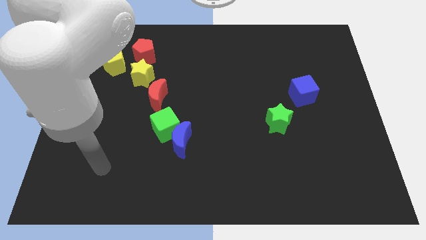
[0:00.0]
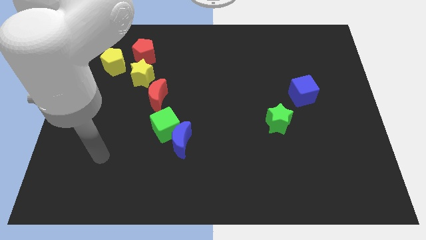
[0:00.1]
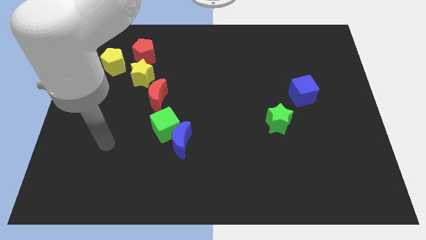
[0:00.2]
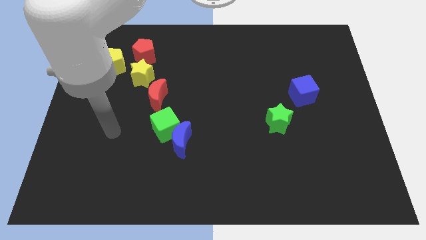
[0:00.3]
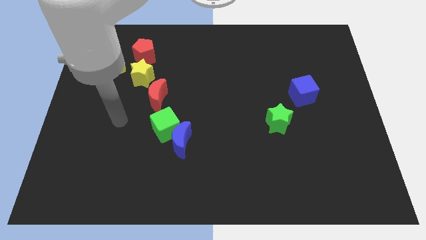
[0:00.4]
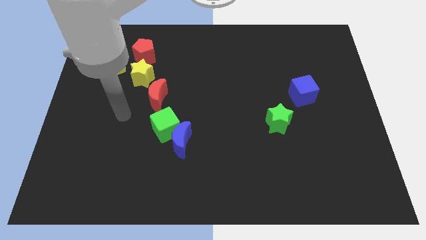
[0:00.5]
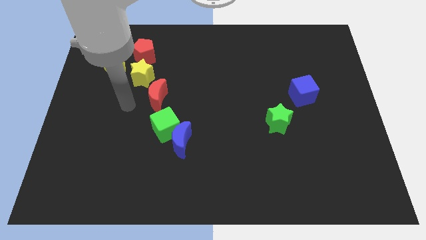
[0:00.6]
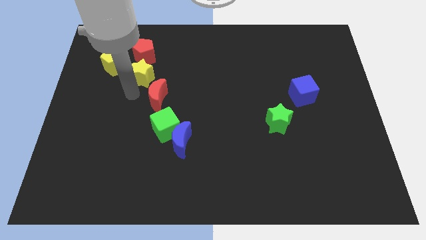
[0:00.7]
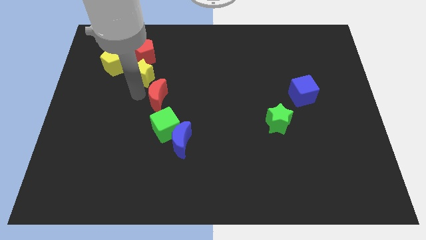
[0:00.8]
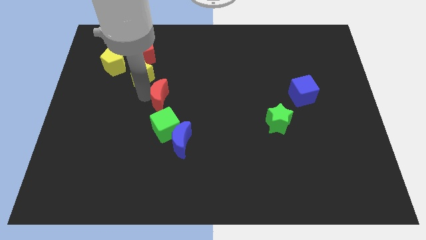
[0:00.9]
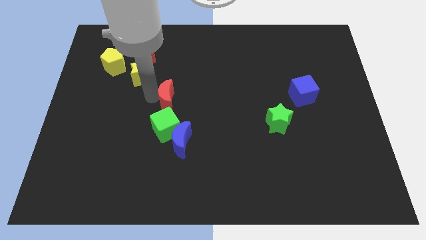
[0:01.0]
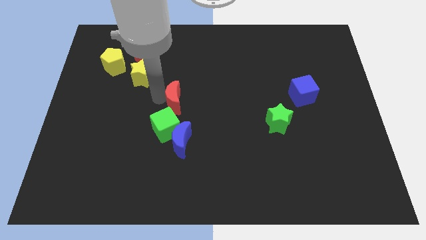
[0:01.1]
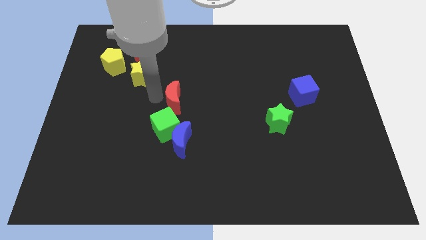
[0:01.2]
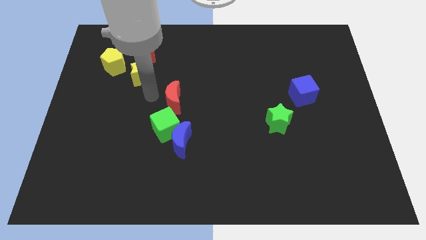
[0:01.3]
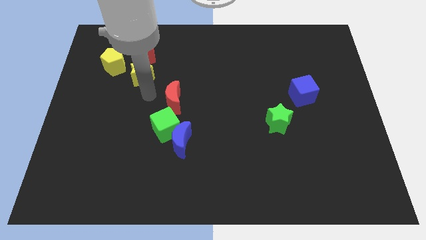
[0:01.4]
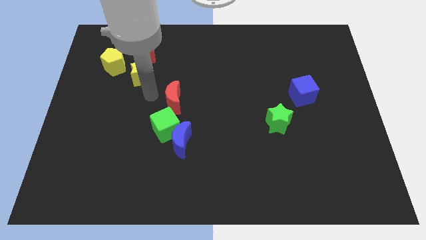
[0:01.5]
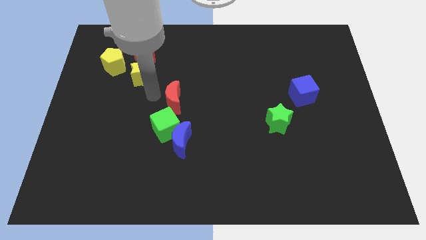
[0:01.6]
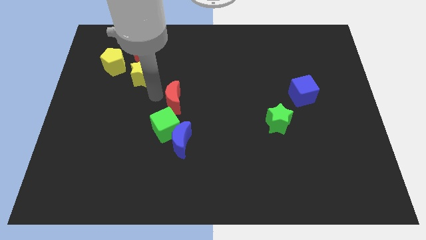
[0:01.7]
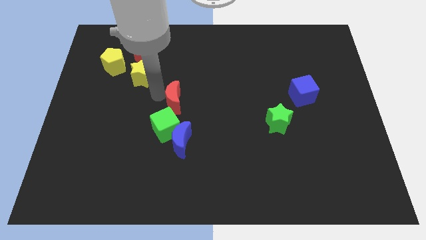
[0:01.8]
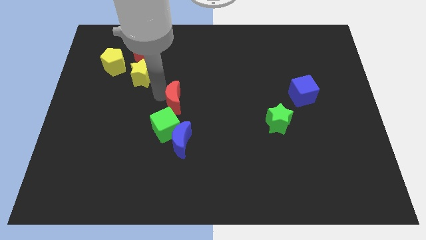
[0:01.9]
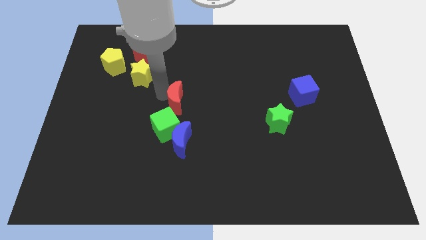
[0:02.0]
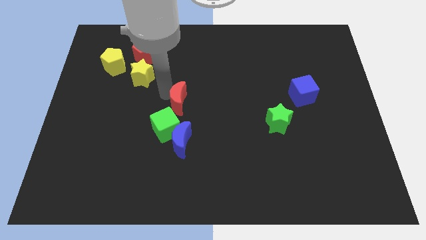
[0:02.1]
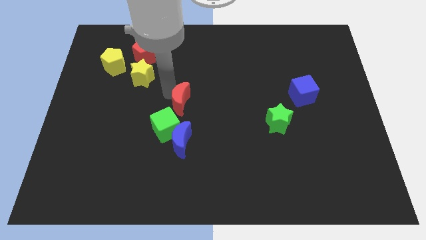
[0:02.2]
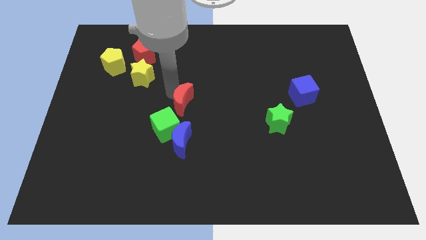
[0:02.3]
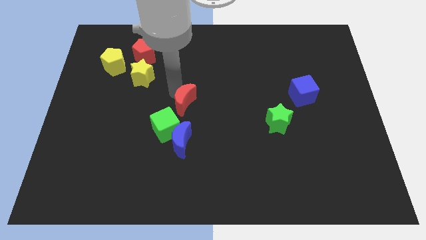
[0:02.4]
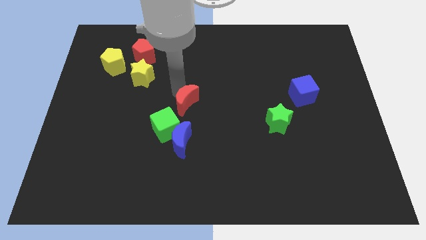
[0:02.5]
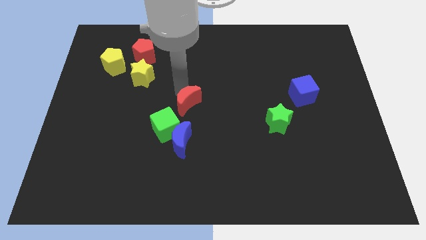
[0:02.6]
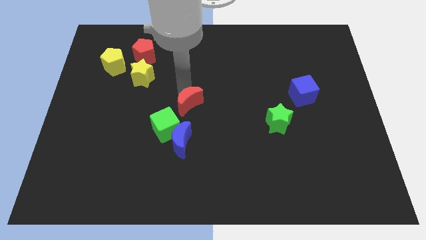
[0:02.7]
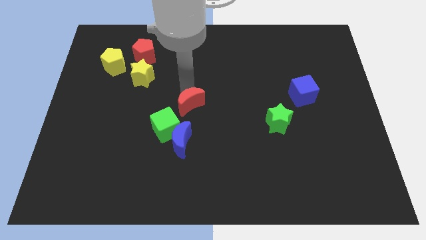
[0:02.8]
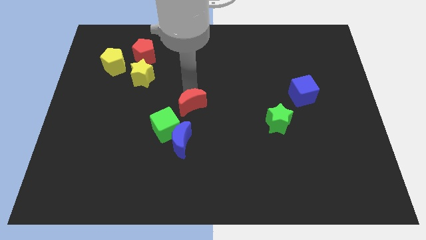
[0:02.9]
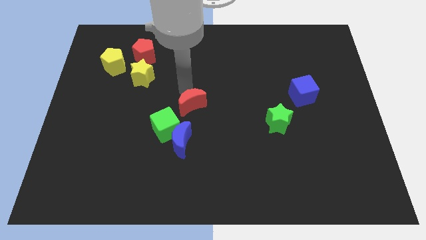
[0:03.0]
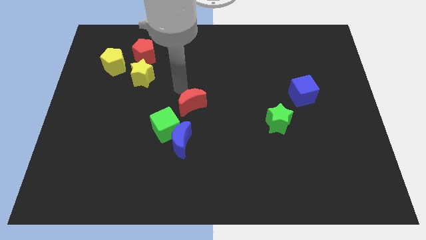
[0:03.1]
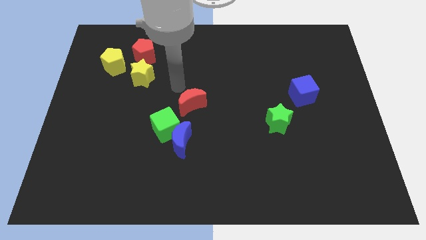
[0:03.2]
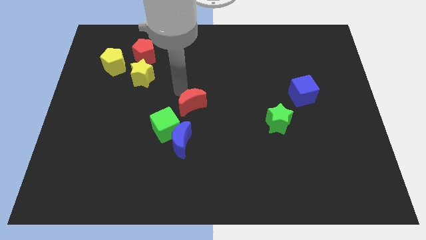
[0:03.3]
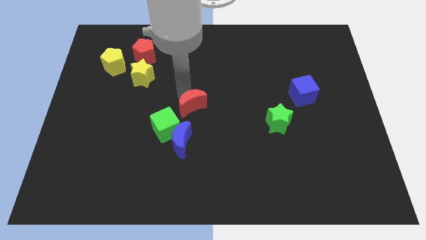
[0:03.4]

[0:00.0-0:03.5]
move the red moon a little downwards and to the right

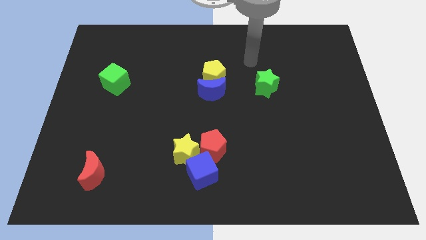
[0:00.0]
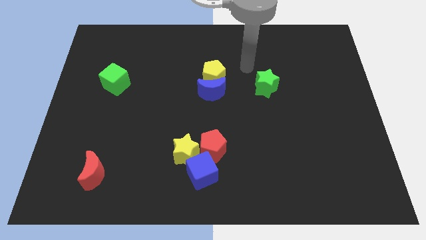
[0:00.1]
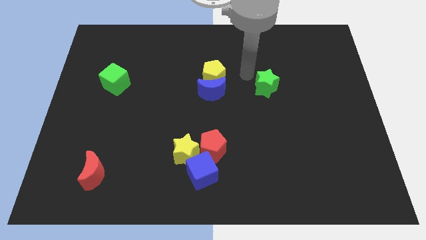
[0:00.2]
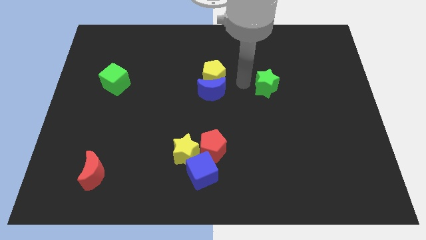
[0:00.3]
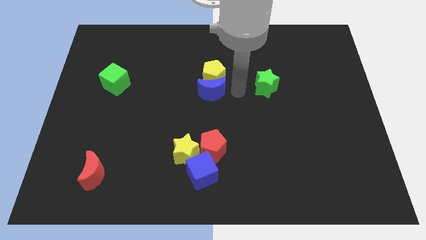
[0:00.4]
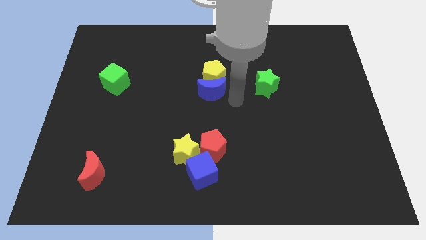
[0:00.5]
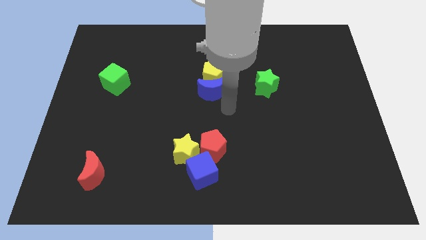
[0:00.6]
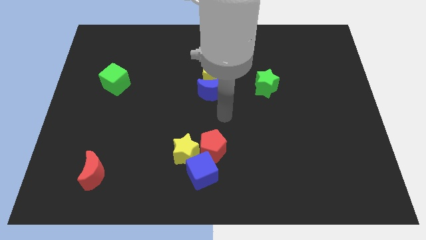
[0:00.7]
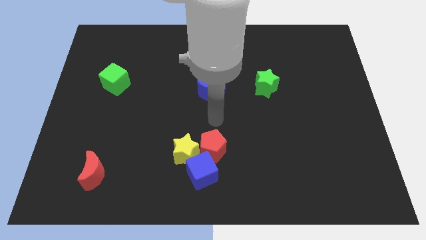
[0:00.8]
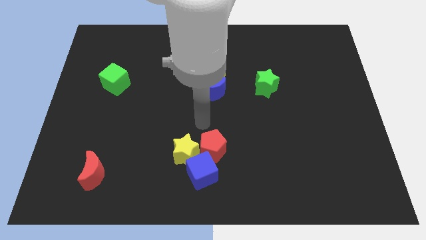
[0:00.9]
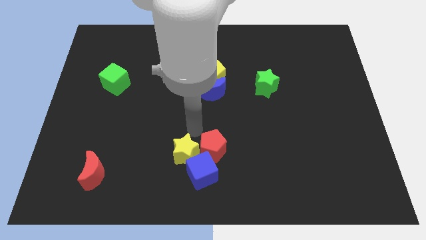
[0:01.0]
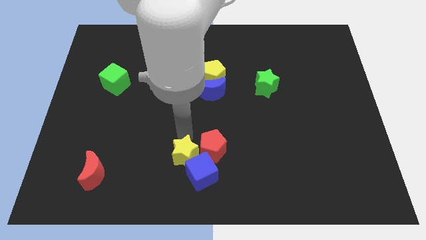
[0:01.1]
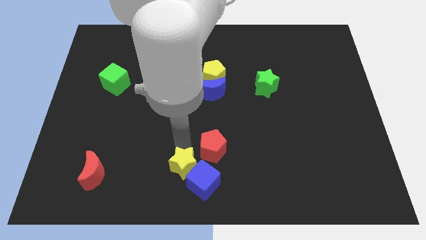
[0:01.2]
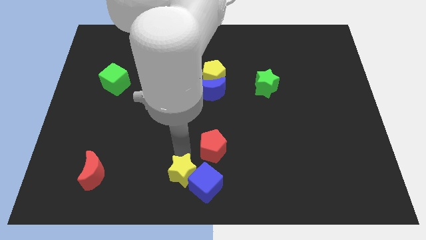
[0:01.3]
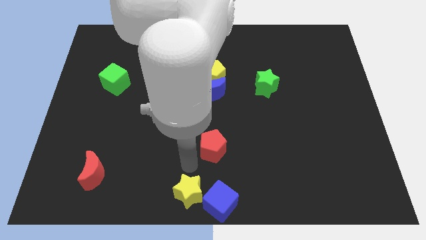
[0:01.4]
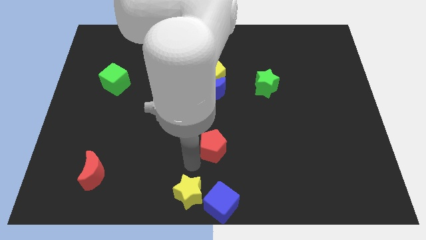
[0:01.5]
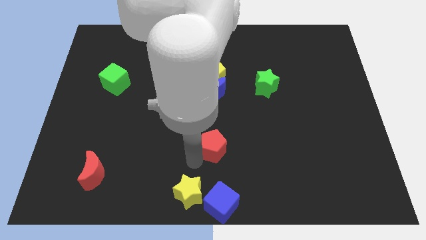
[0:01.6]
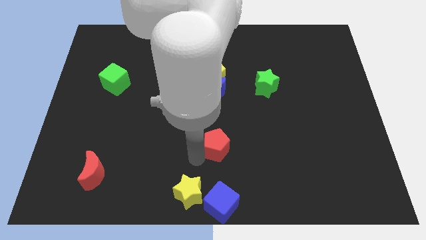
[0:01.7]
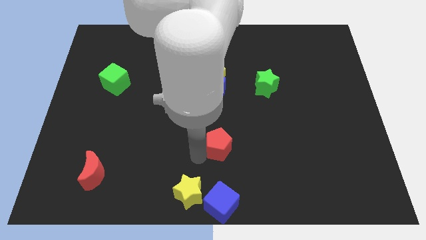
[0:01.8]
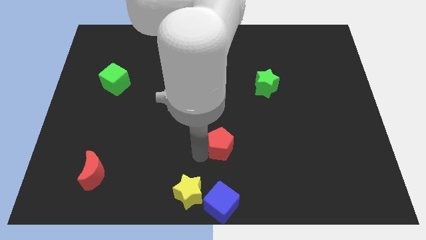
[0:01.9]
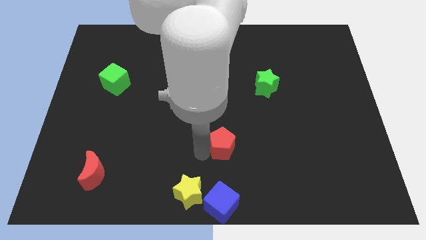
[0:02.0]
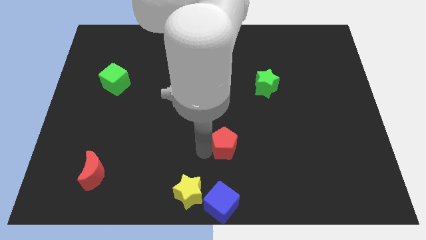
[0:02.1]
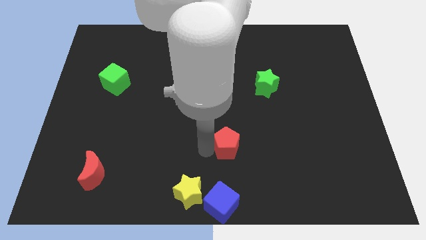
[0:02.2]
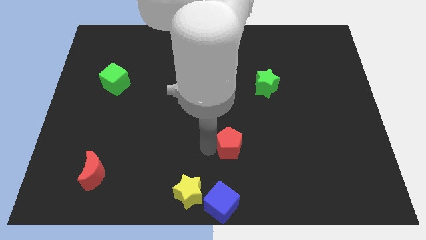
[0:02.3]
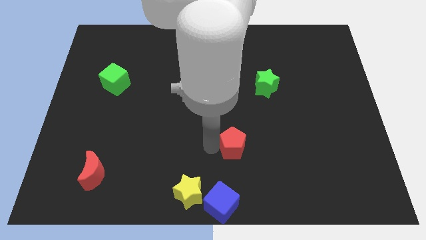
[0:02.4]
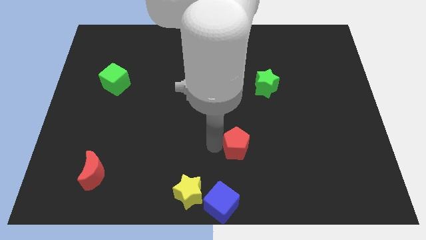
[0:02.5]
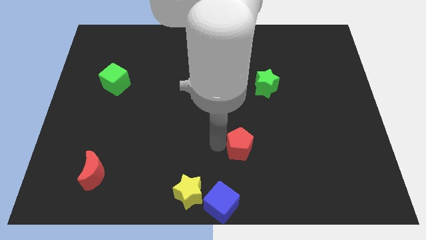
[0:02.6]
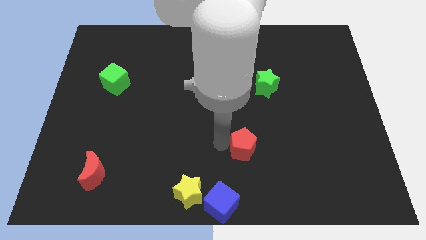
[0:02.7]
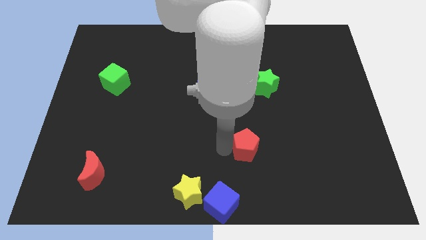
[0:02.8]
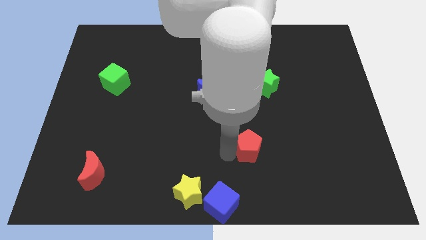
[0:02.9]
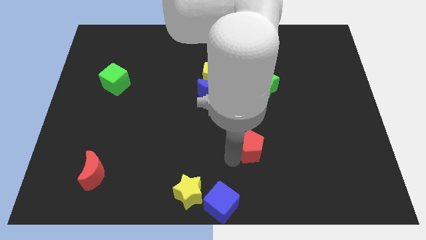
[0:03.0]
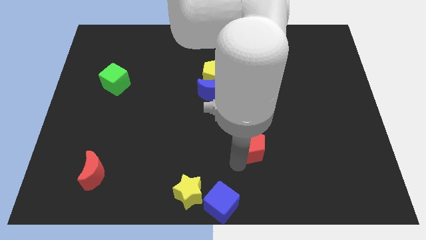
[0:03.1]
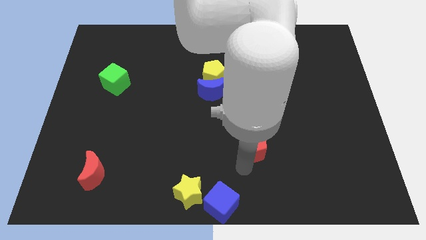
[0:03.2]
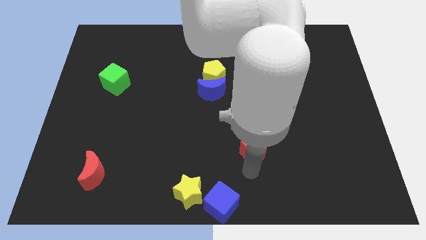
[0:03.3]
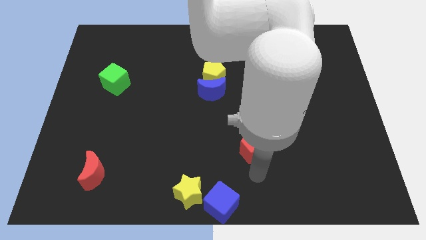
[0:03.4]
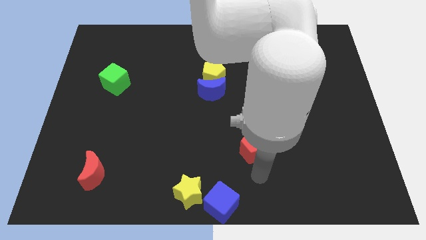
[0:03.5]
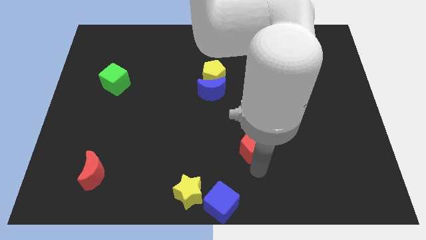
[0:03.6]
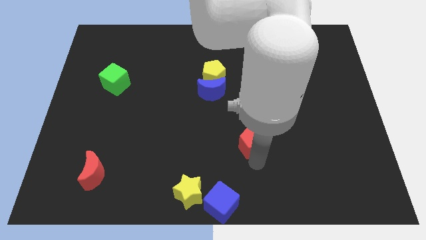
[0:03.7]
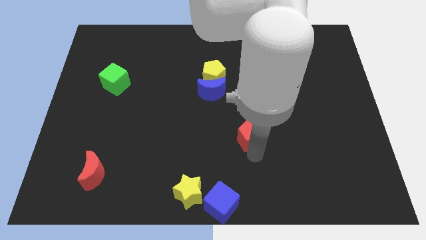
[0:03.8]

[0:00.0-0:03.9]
slide the red pentagon upwards and right diagonally a bit

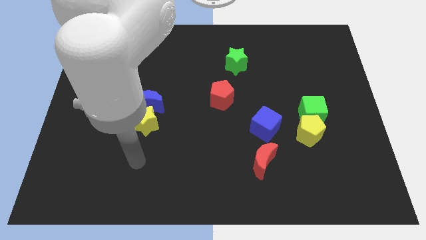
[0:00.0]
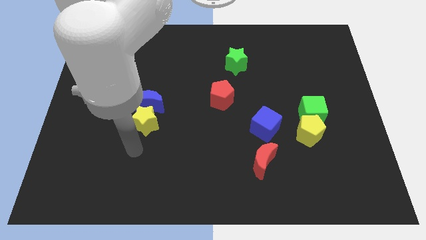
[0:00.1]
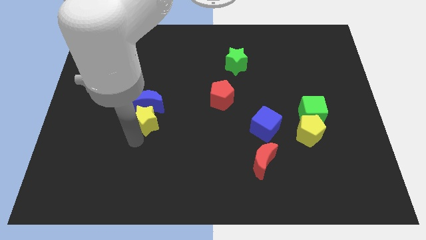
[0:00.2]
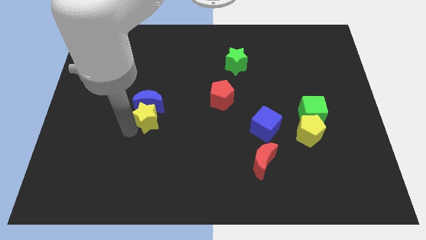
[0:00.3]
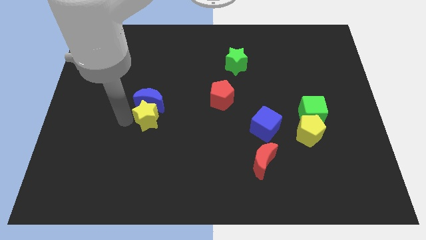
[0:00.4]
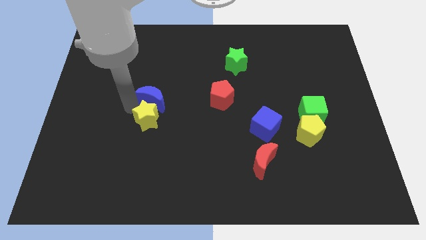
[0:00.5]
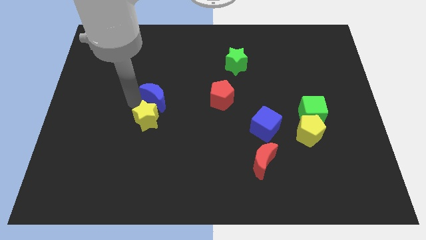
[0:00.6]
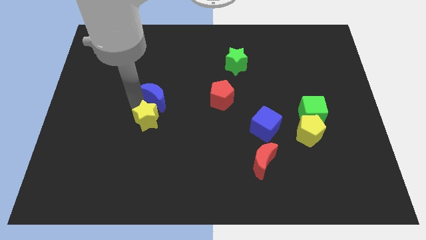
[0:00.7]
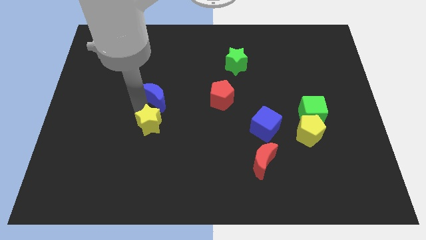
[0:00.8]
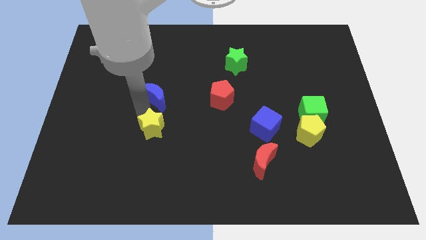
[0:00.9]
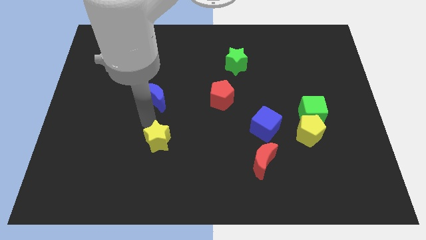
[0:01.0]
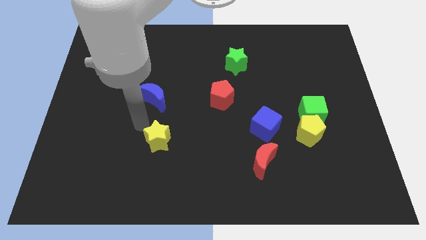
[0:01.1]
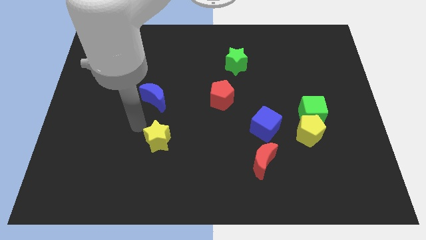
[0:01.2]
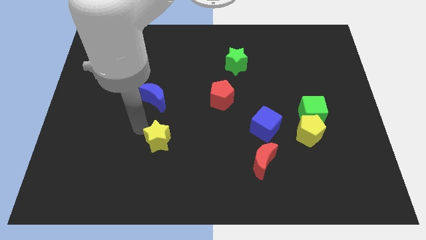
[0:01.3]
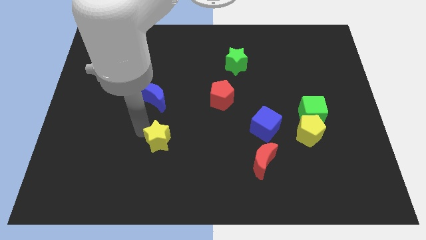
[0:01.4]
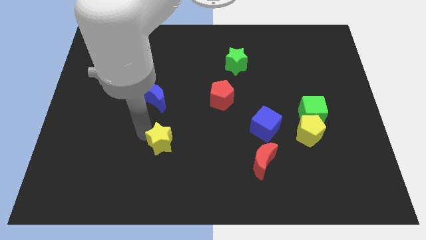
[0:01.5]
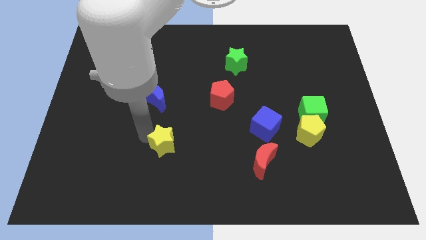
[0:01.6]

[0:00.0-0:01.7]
push the yellow star slightly down and to the right diagonally
